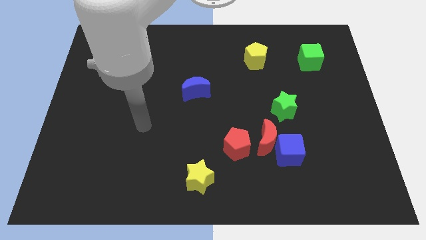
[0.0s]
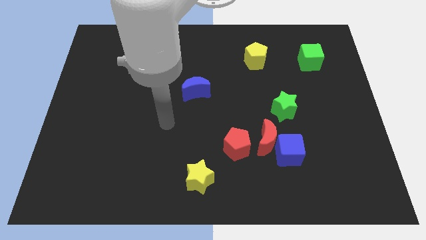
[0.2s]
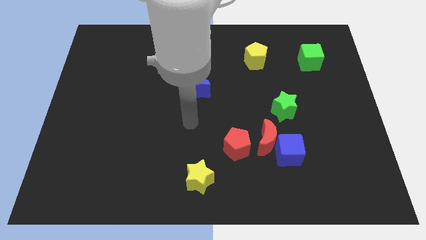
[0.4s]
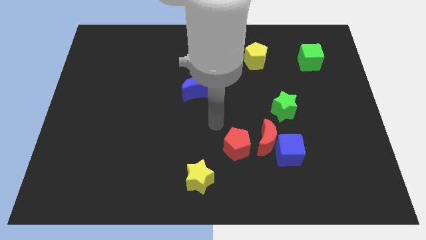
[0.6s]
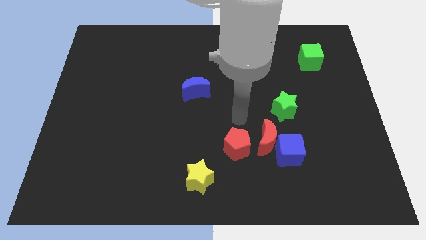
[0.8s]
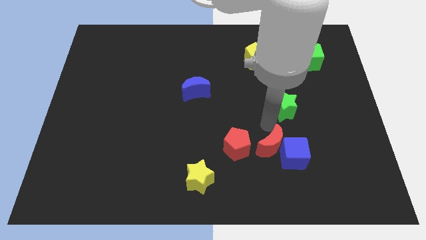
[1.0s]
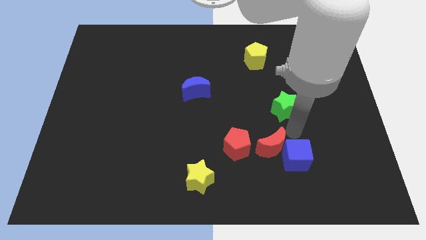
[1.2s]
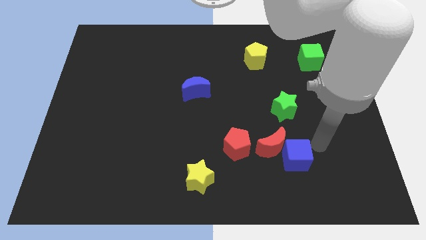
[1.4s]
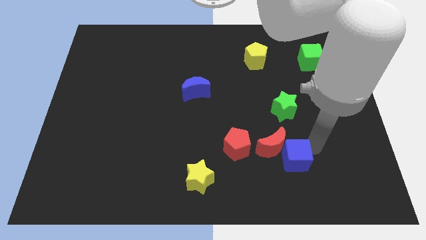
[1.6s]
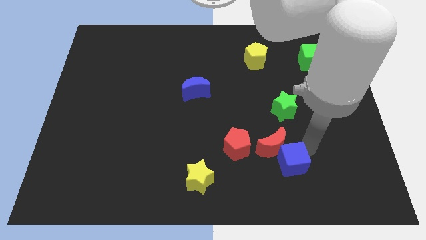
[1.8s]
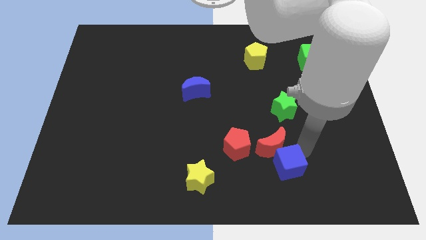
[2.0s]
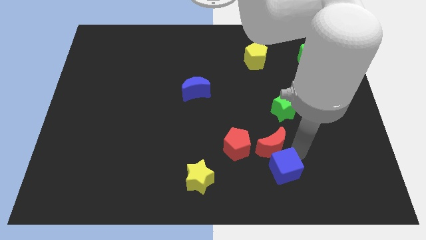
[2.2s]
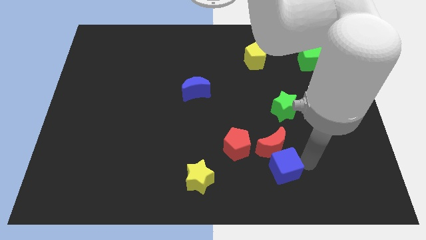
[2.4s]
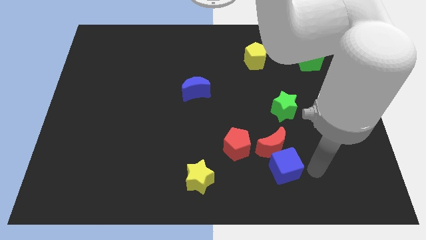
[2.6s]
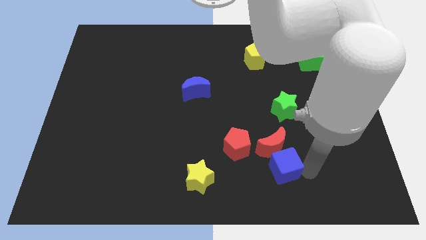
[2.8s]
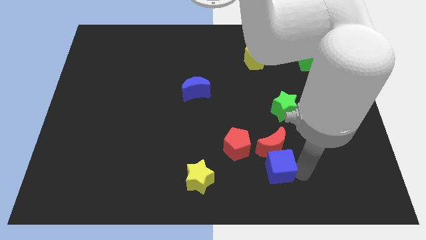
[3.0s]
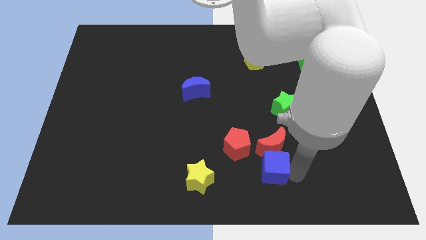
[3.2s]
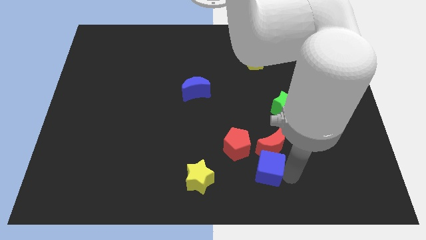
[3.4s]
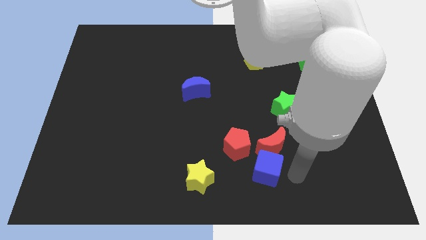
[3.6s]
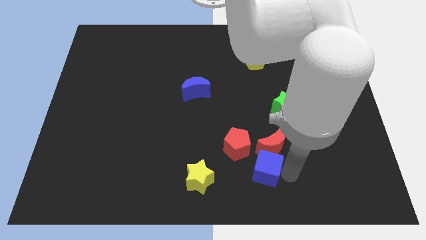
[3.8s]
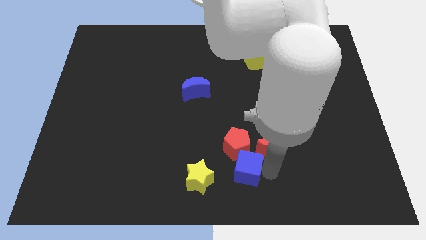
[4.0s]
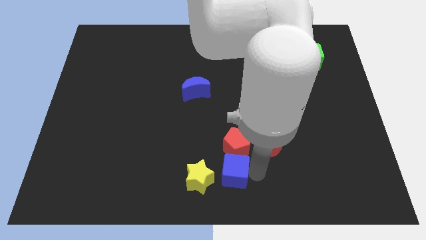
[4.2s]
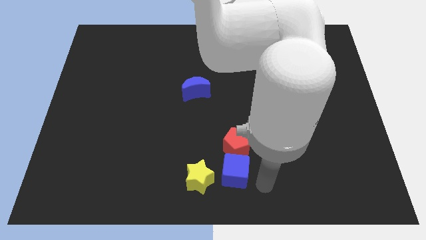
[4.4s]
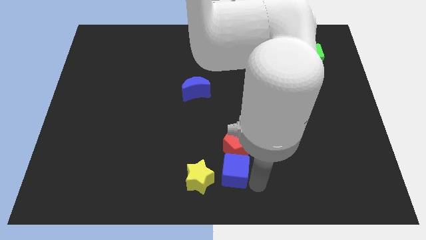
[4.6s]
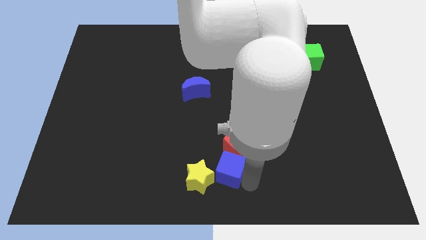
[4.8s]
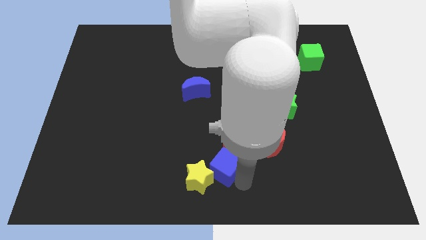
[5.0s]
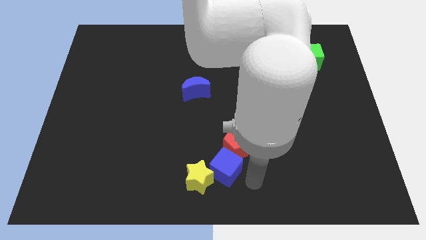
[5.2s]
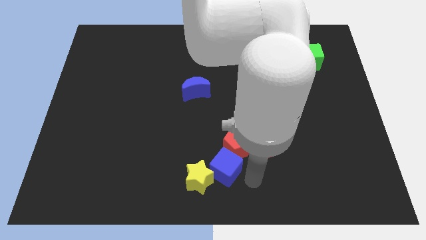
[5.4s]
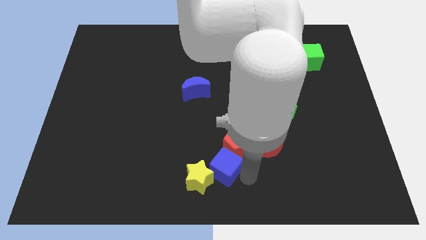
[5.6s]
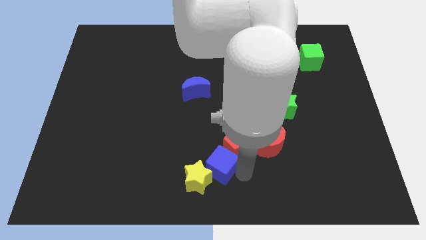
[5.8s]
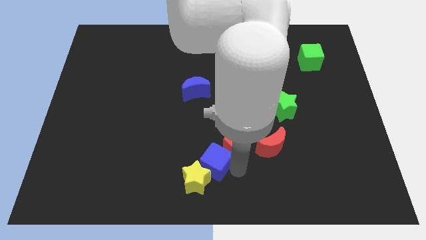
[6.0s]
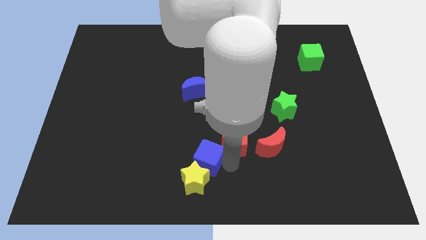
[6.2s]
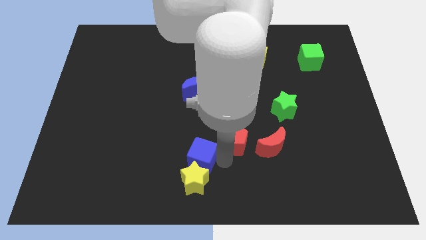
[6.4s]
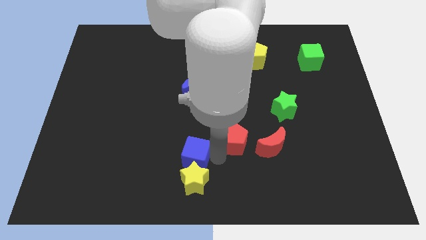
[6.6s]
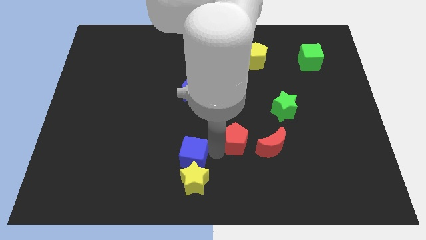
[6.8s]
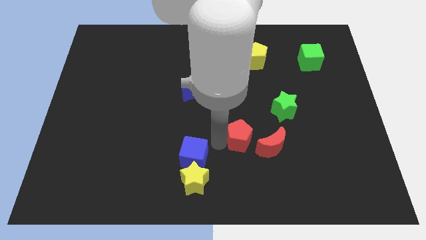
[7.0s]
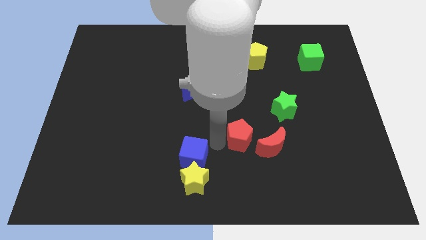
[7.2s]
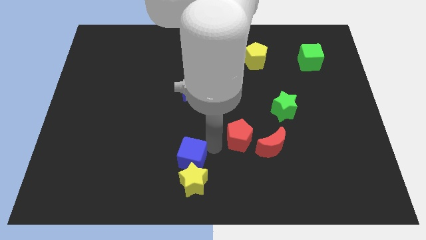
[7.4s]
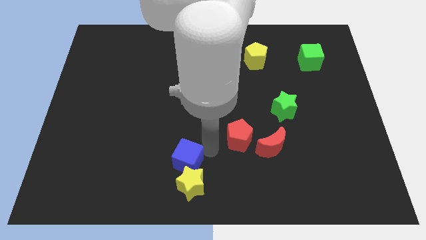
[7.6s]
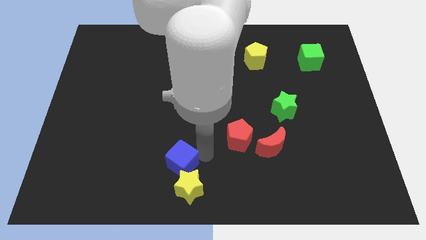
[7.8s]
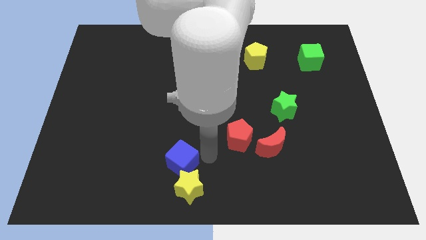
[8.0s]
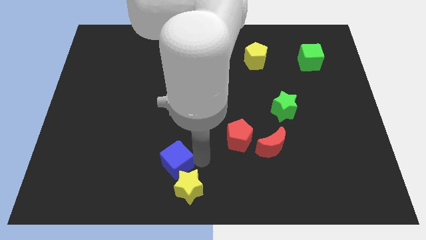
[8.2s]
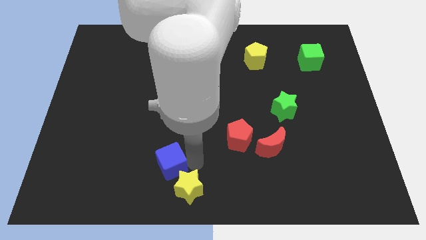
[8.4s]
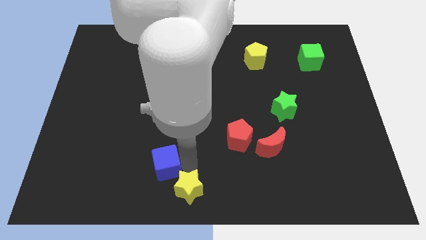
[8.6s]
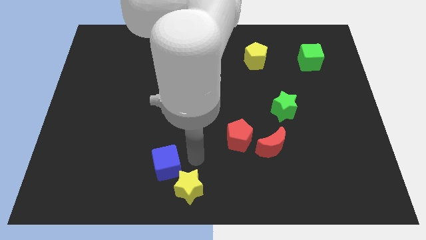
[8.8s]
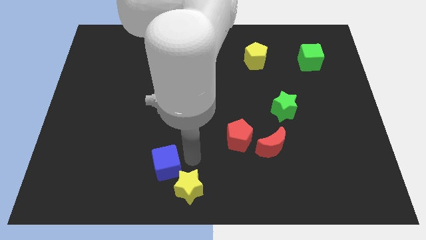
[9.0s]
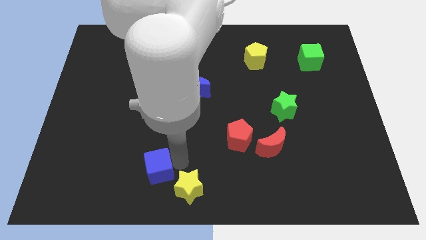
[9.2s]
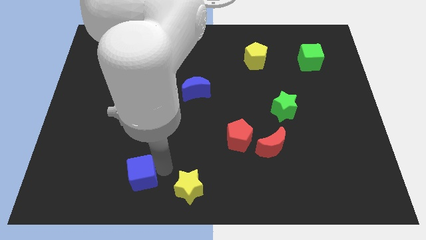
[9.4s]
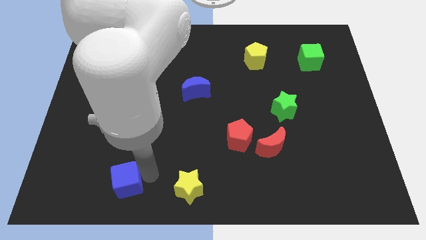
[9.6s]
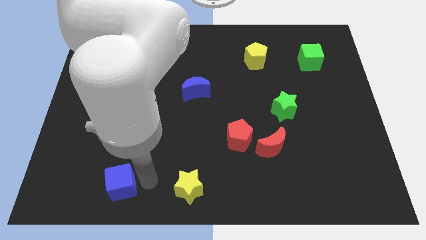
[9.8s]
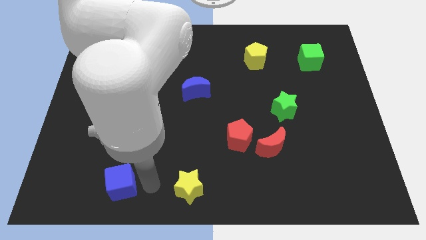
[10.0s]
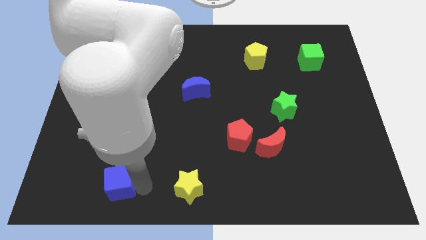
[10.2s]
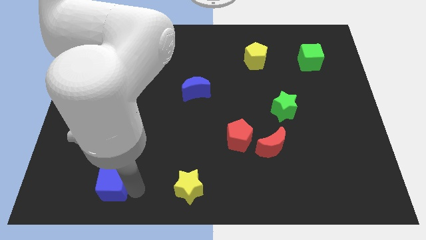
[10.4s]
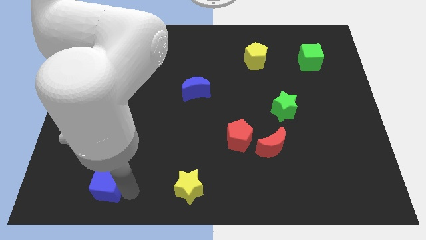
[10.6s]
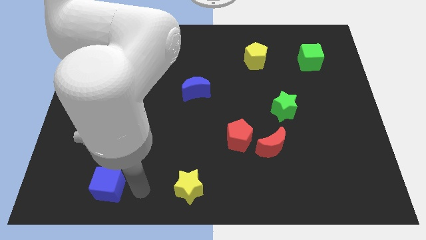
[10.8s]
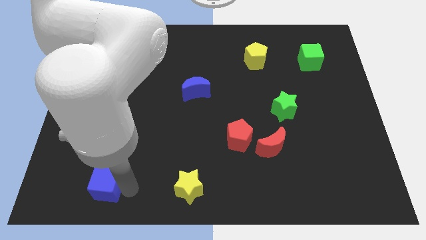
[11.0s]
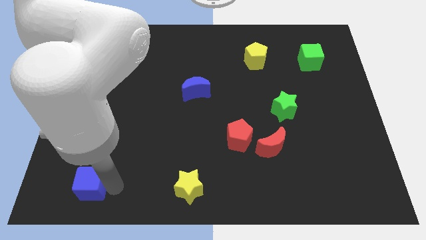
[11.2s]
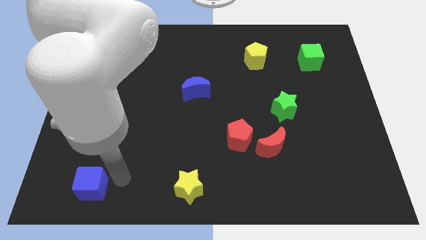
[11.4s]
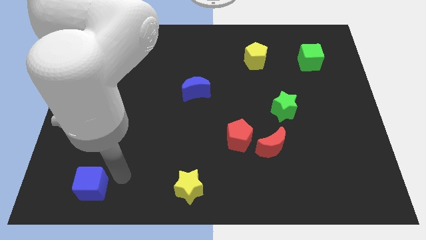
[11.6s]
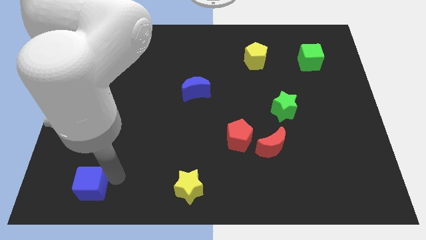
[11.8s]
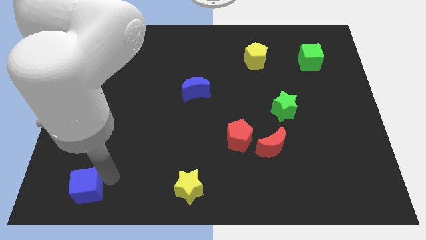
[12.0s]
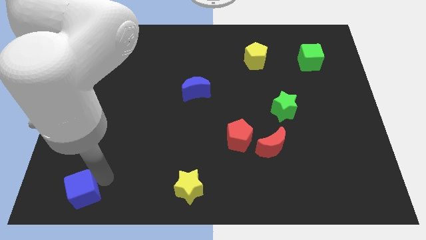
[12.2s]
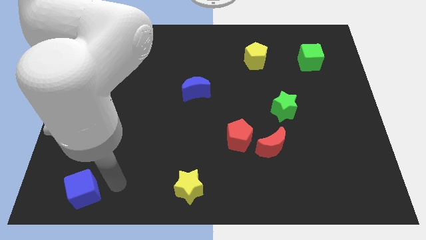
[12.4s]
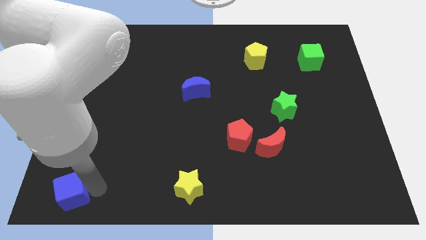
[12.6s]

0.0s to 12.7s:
slide the blue cube to the bottom left

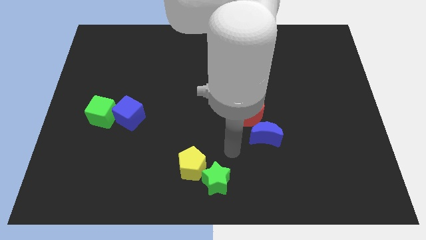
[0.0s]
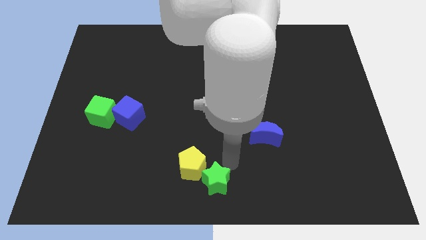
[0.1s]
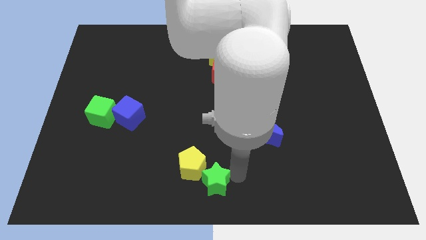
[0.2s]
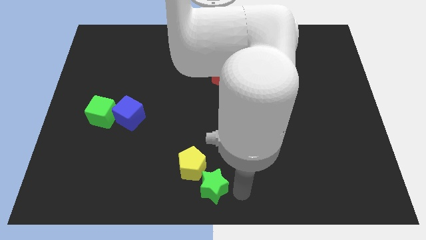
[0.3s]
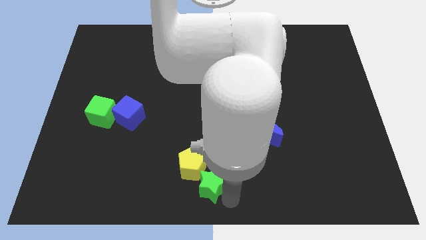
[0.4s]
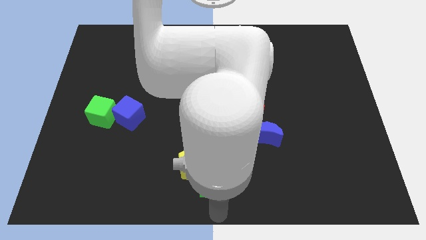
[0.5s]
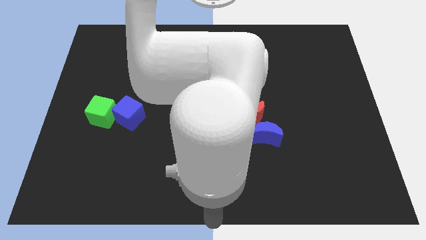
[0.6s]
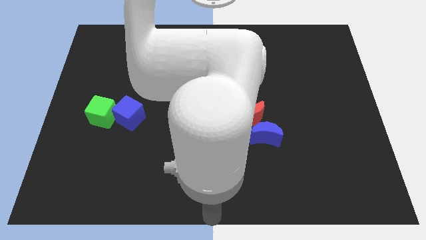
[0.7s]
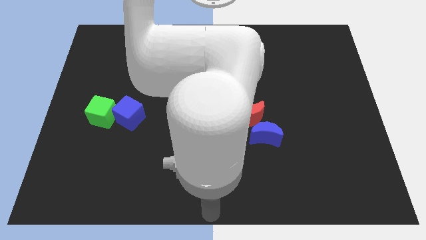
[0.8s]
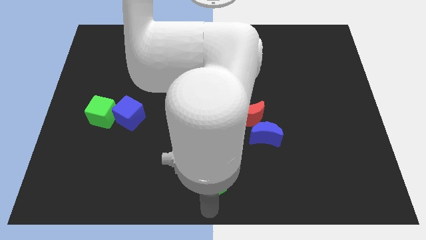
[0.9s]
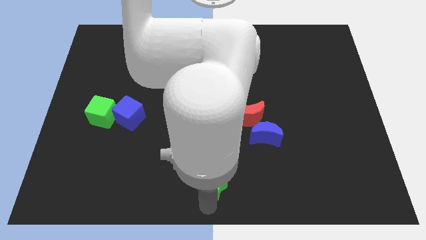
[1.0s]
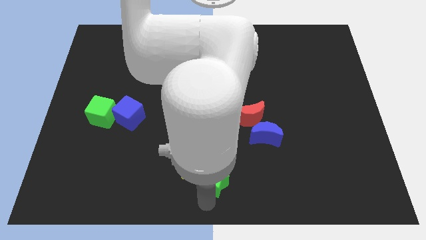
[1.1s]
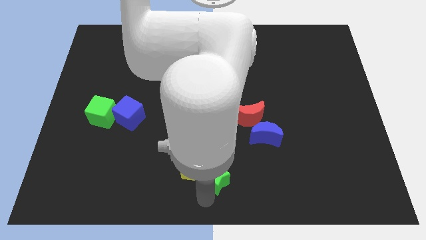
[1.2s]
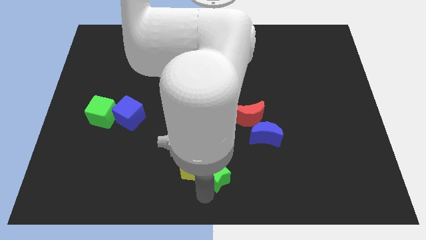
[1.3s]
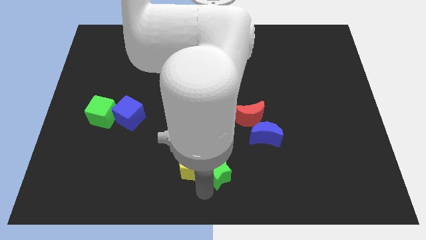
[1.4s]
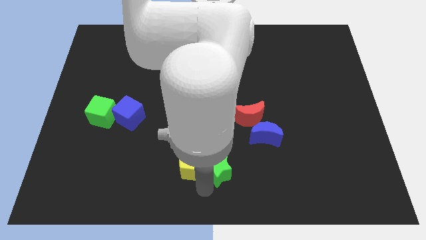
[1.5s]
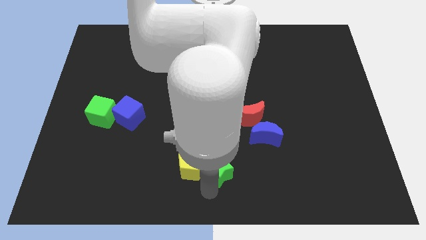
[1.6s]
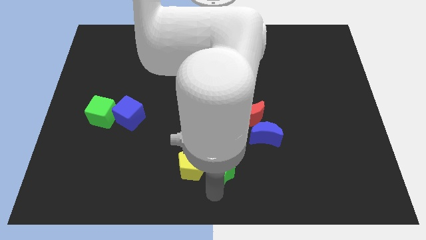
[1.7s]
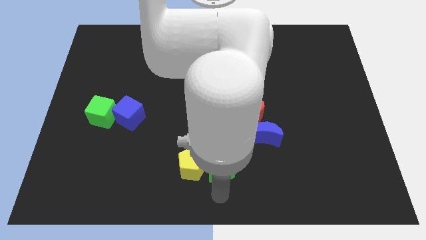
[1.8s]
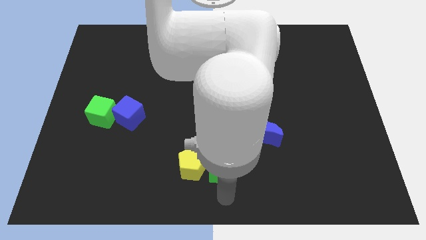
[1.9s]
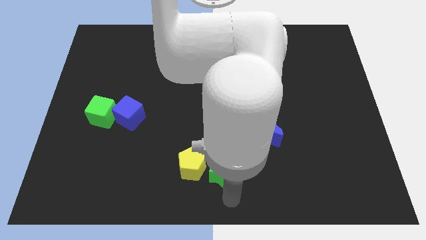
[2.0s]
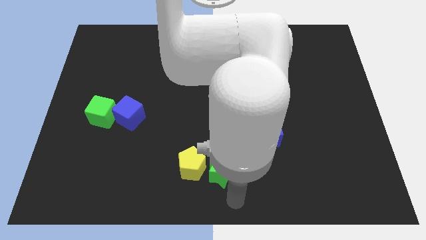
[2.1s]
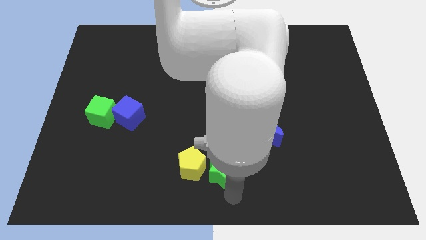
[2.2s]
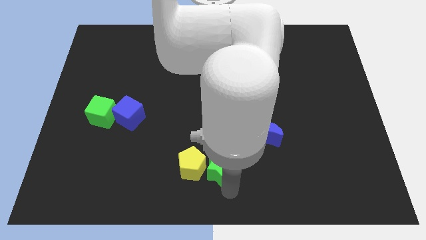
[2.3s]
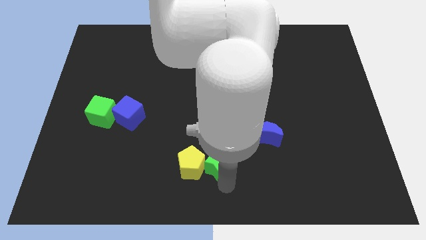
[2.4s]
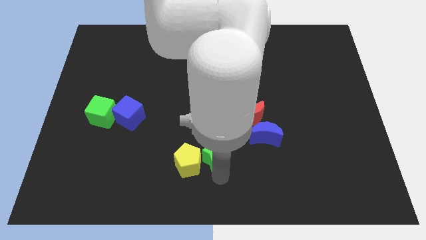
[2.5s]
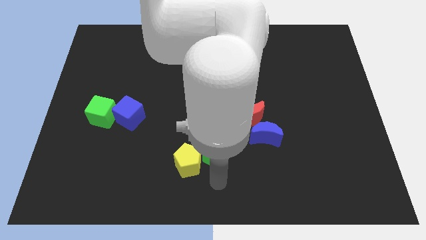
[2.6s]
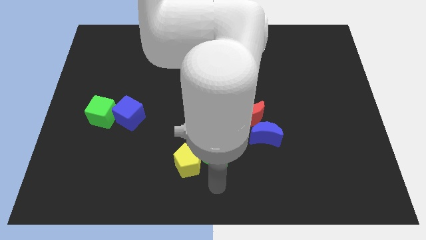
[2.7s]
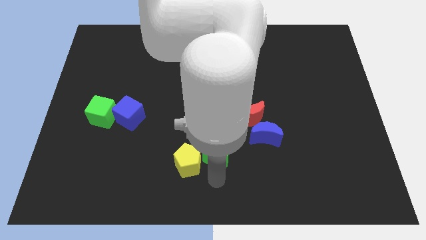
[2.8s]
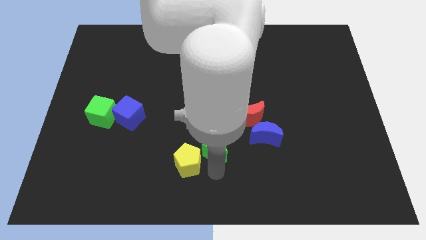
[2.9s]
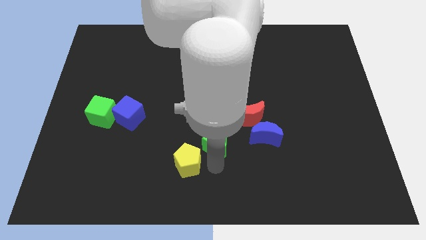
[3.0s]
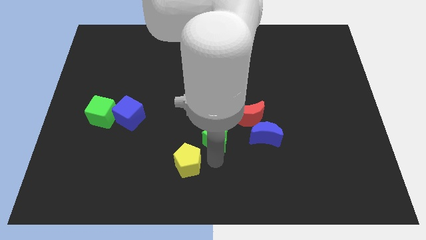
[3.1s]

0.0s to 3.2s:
move the green star to the center
